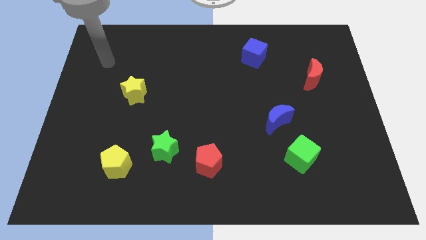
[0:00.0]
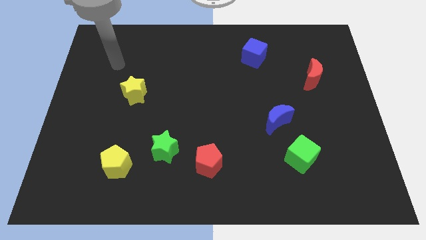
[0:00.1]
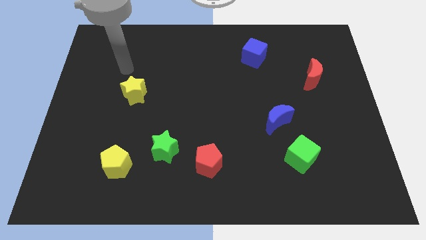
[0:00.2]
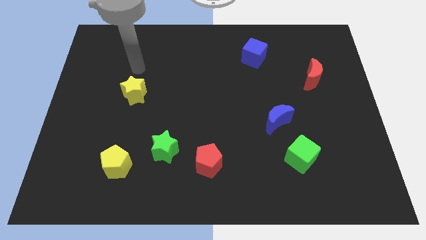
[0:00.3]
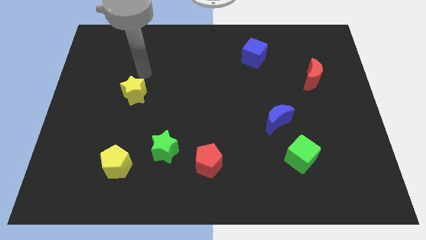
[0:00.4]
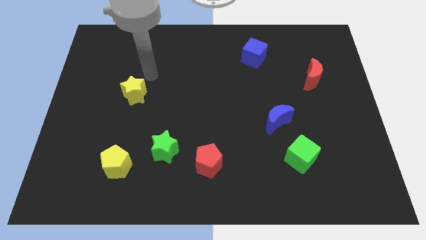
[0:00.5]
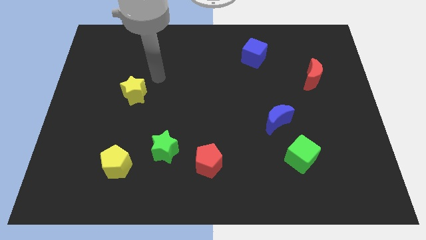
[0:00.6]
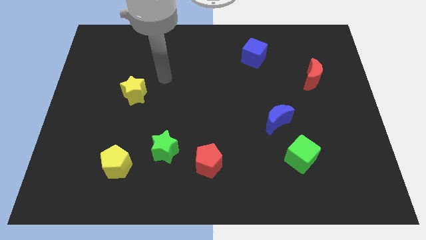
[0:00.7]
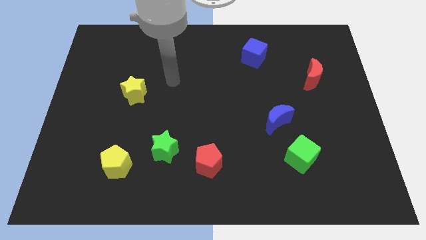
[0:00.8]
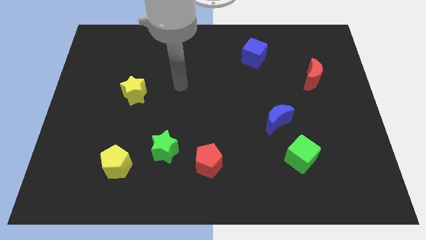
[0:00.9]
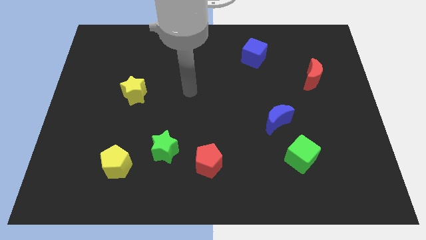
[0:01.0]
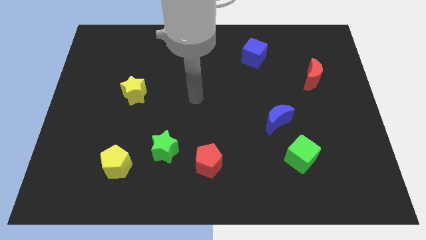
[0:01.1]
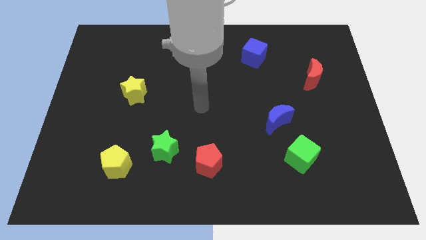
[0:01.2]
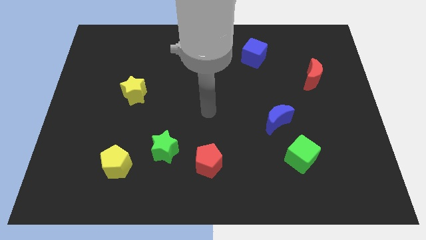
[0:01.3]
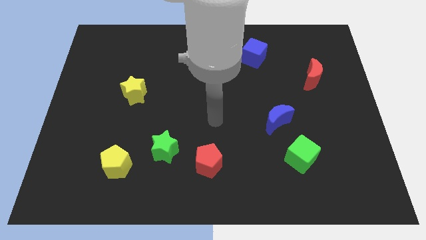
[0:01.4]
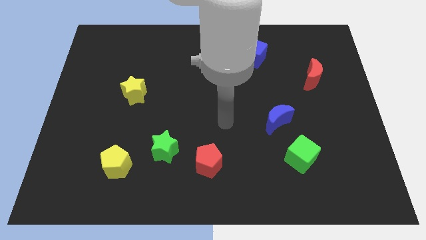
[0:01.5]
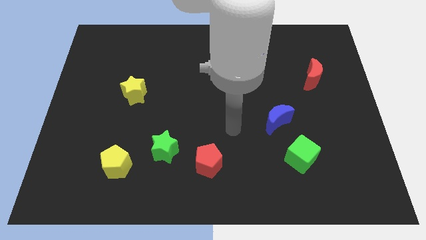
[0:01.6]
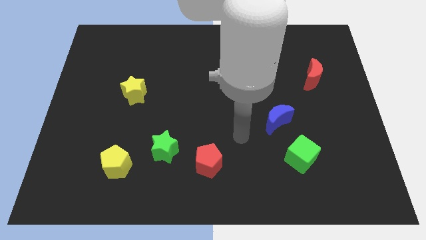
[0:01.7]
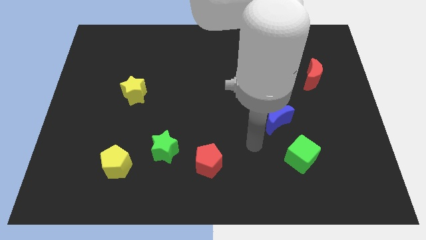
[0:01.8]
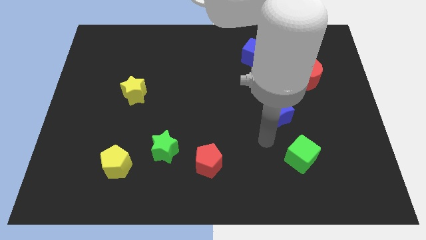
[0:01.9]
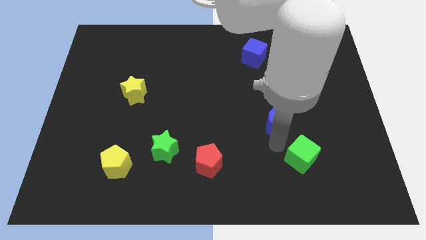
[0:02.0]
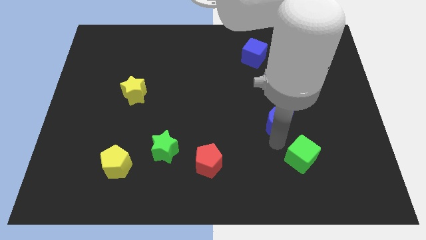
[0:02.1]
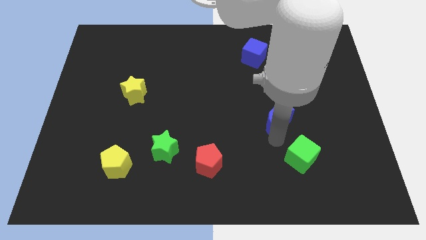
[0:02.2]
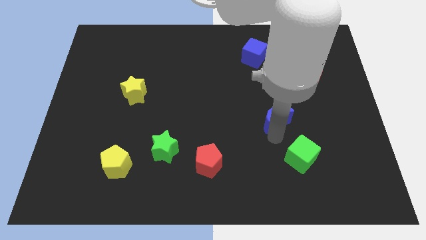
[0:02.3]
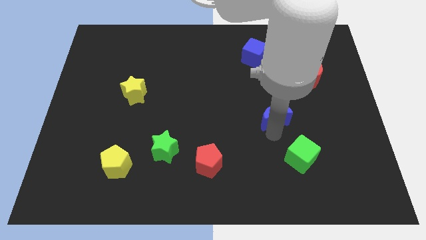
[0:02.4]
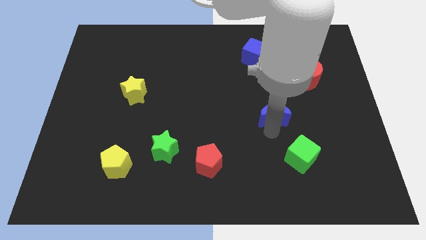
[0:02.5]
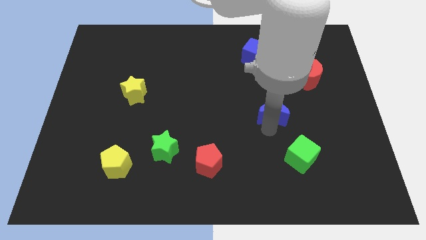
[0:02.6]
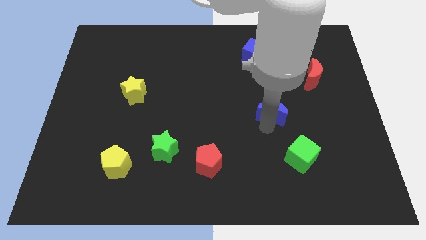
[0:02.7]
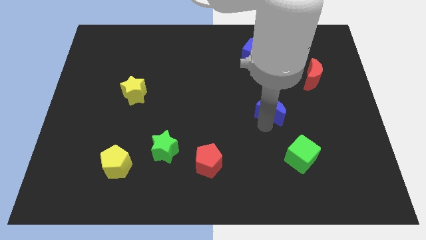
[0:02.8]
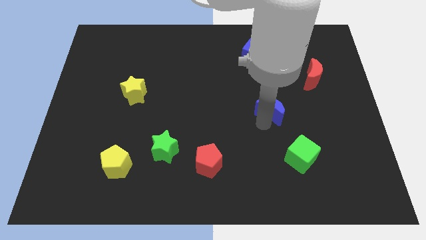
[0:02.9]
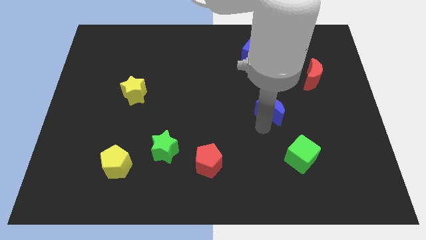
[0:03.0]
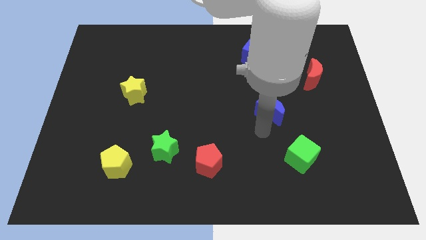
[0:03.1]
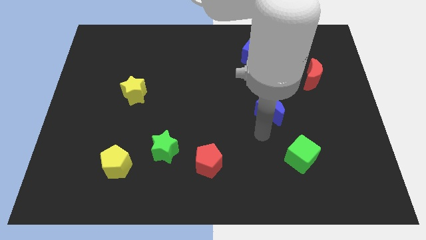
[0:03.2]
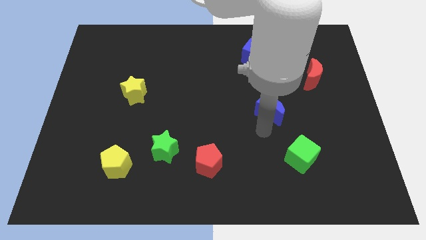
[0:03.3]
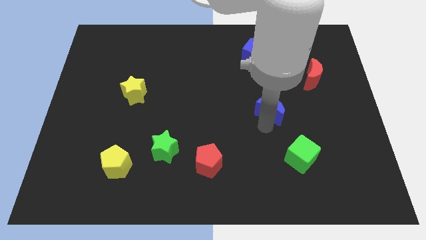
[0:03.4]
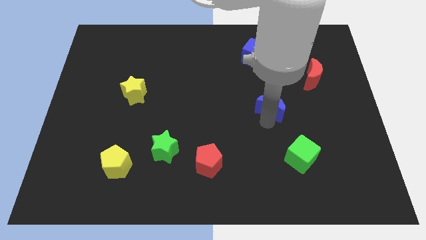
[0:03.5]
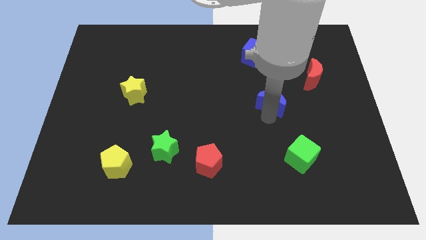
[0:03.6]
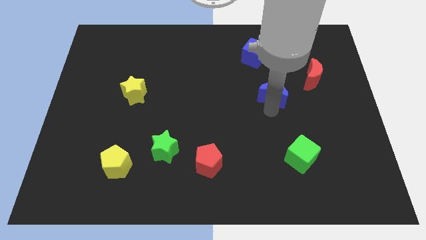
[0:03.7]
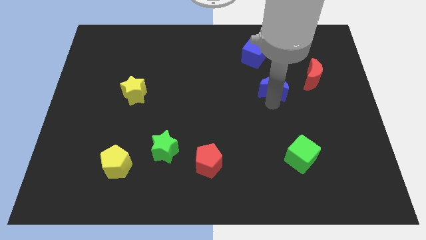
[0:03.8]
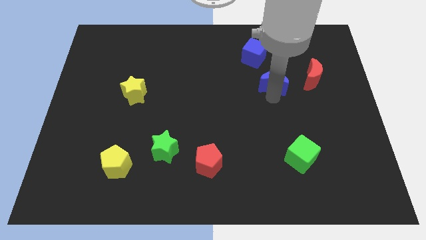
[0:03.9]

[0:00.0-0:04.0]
slide the blue moon diagonally down and to the right of the blue cube

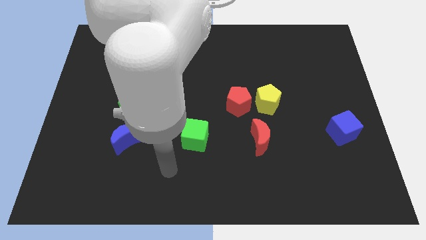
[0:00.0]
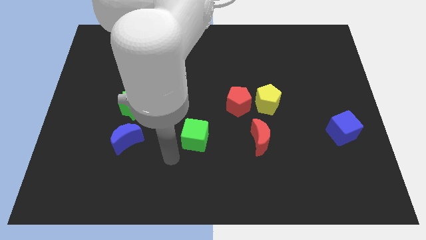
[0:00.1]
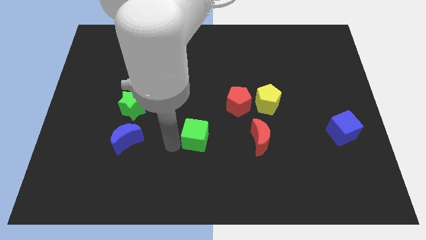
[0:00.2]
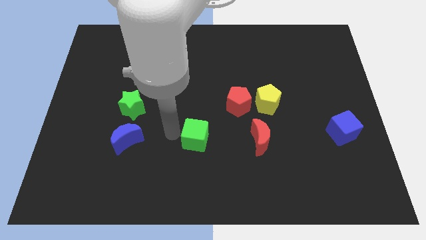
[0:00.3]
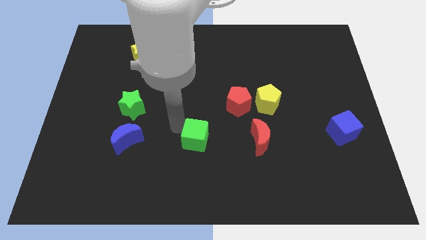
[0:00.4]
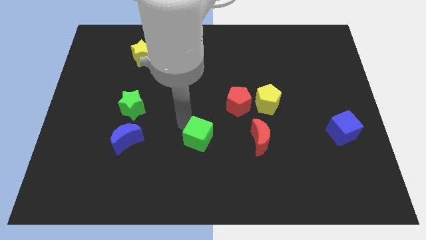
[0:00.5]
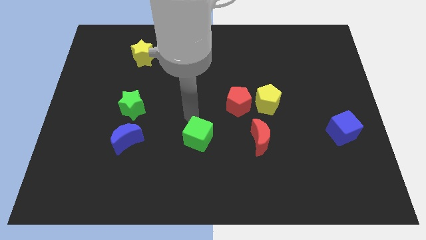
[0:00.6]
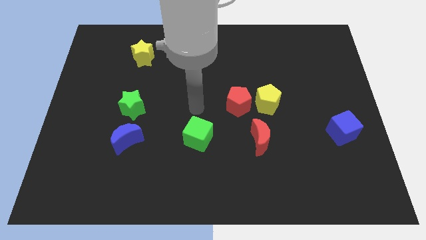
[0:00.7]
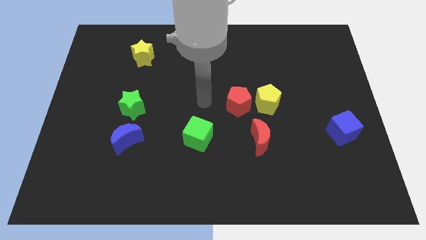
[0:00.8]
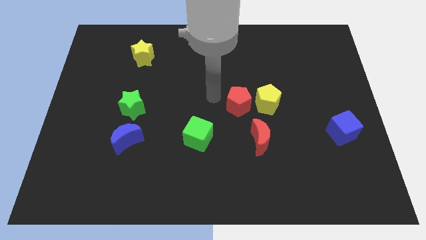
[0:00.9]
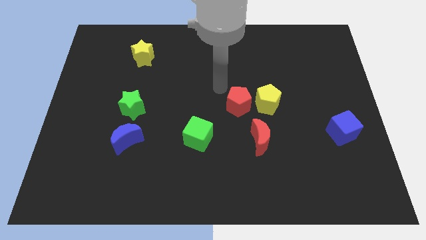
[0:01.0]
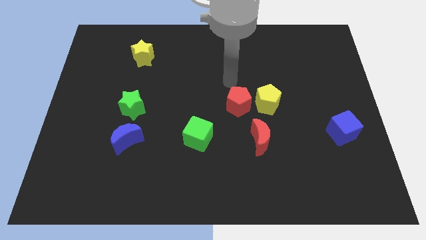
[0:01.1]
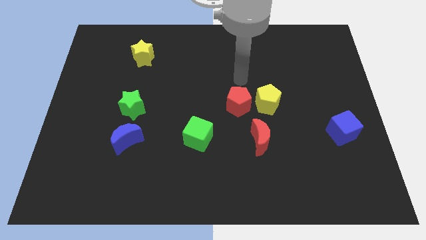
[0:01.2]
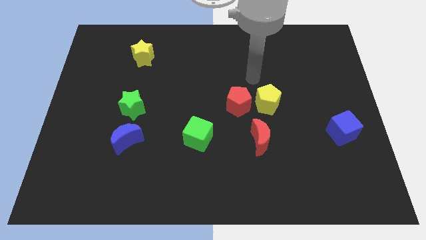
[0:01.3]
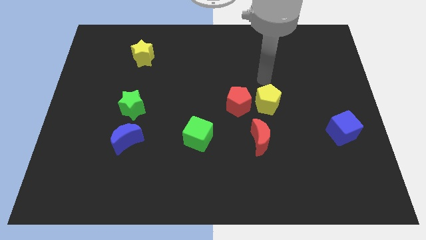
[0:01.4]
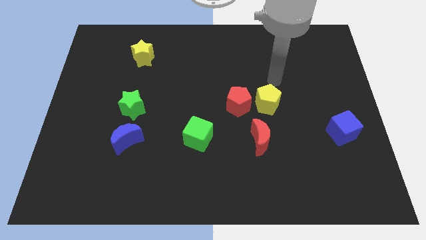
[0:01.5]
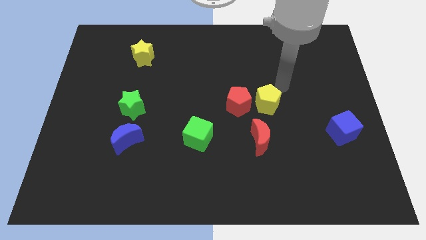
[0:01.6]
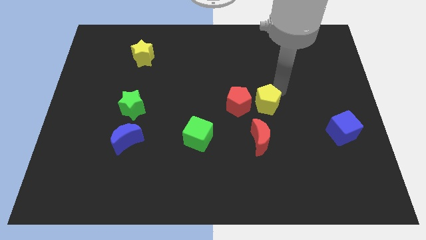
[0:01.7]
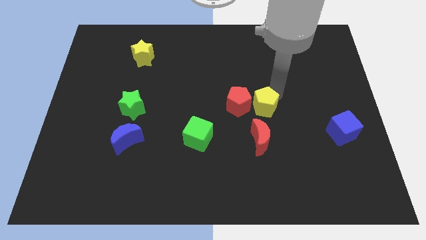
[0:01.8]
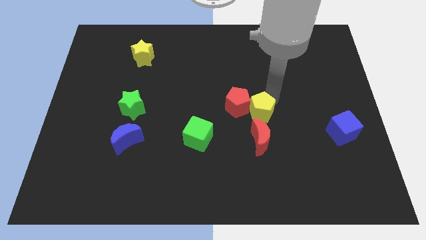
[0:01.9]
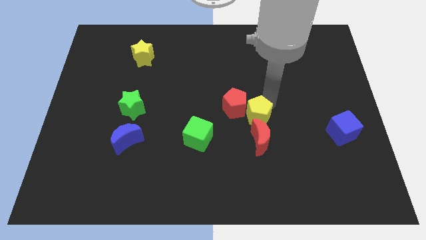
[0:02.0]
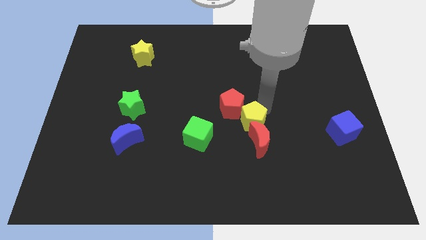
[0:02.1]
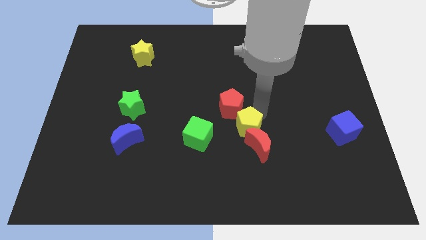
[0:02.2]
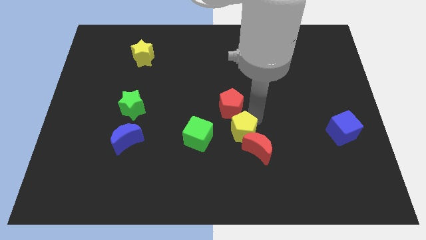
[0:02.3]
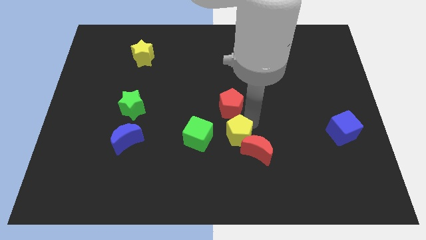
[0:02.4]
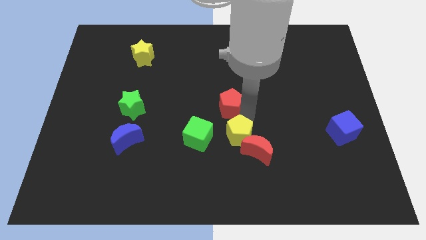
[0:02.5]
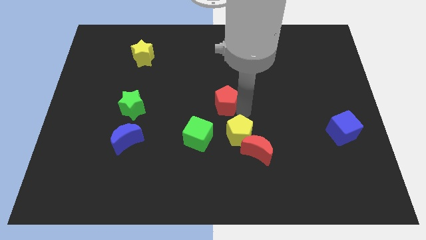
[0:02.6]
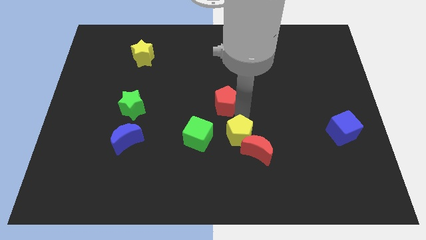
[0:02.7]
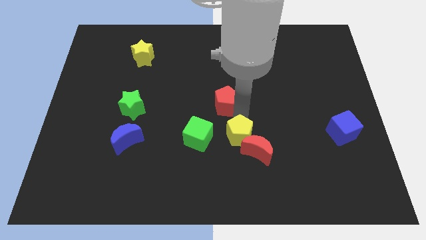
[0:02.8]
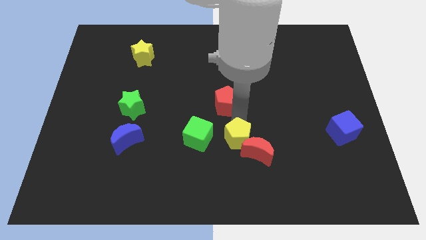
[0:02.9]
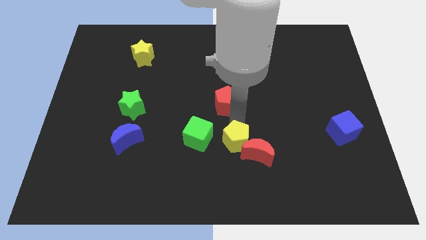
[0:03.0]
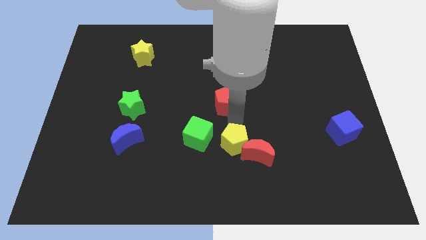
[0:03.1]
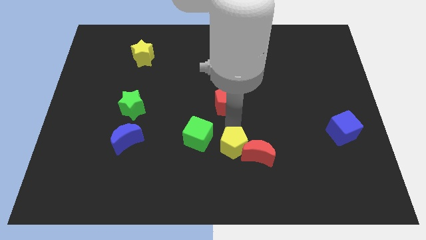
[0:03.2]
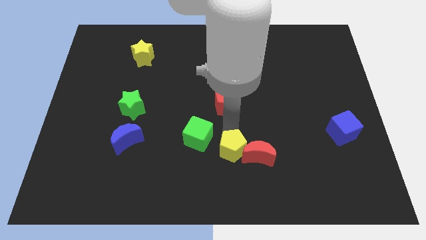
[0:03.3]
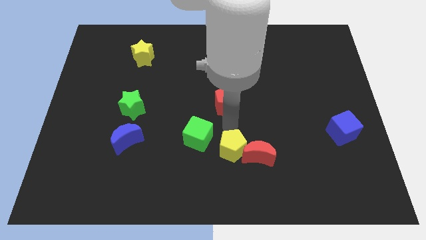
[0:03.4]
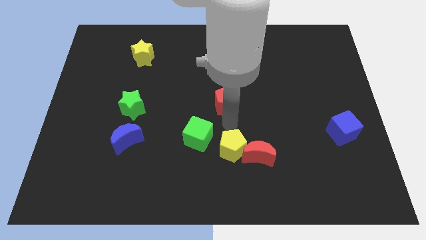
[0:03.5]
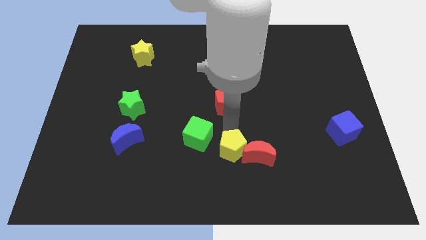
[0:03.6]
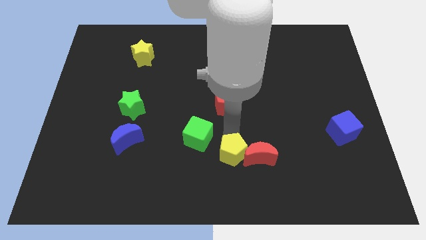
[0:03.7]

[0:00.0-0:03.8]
move the yellow pentagon to the bottom left side of the red moon

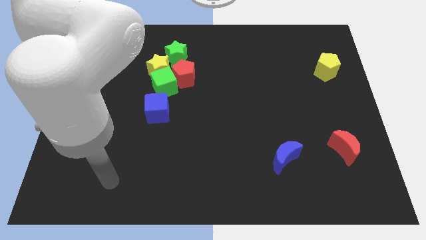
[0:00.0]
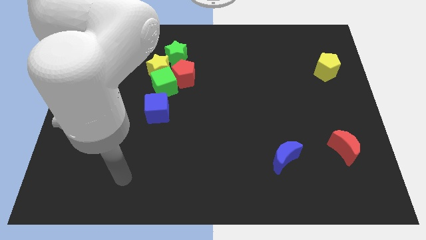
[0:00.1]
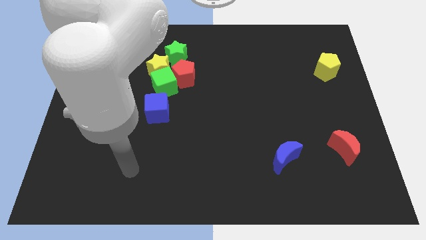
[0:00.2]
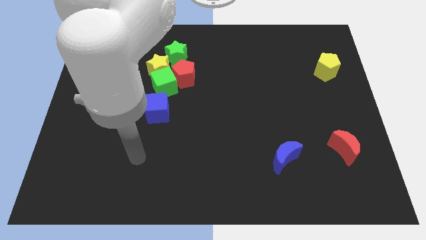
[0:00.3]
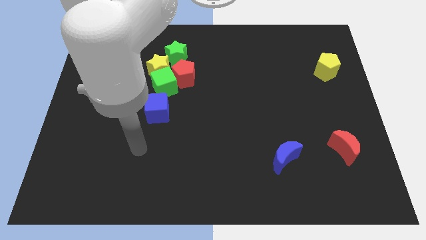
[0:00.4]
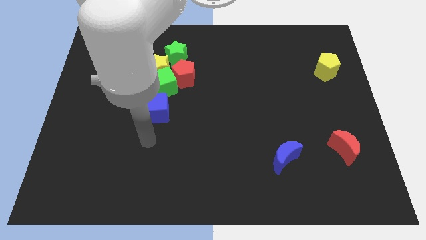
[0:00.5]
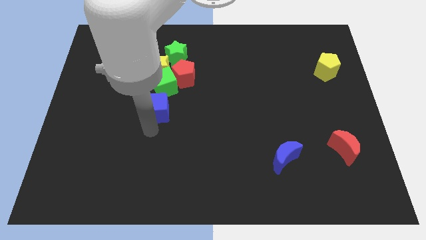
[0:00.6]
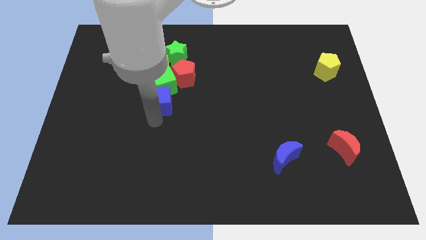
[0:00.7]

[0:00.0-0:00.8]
put the green cube to the bottom left of the green star
